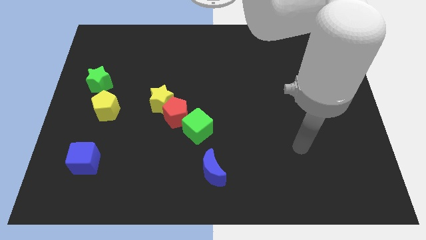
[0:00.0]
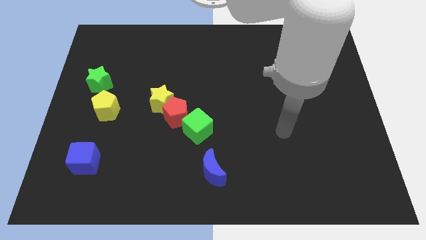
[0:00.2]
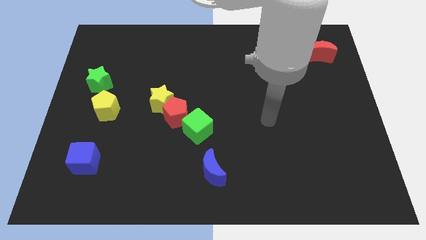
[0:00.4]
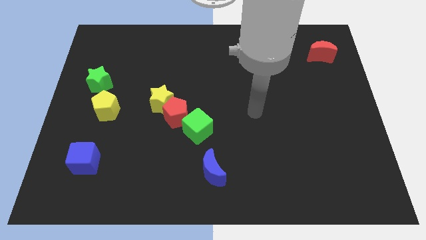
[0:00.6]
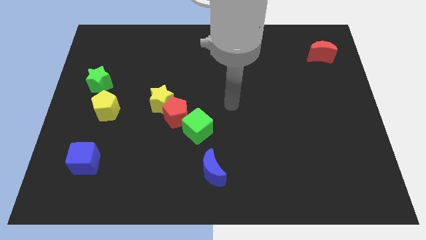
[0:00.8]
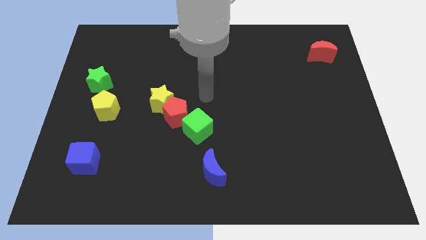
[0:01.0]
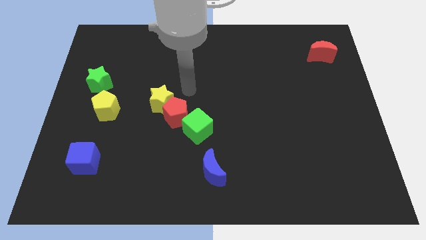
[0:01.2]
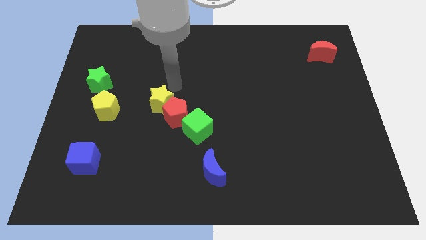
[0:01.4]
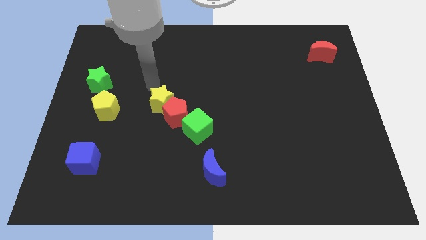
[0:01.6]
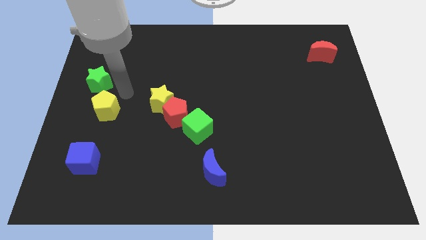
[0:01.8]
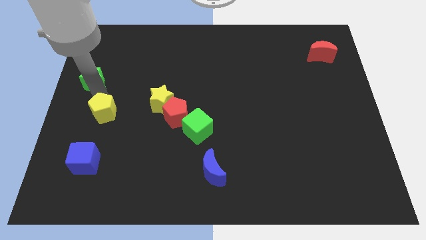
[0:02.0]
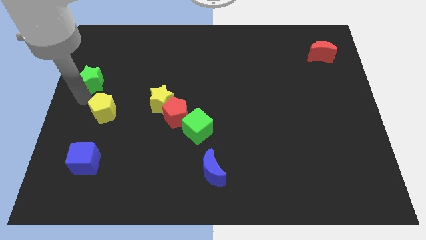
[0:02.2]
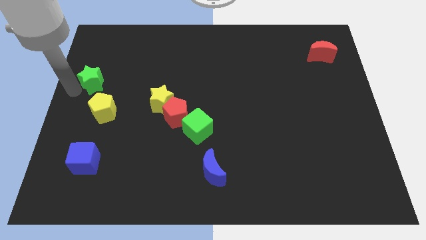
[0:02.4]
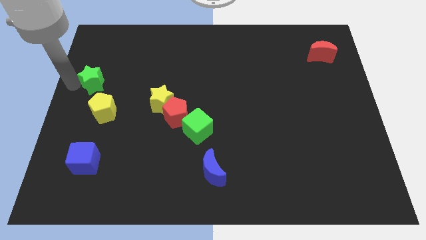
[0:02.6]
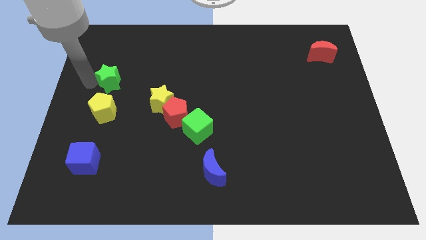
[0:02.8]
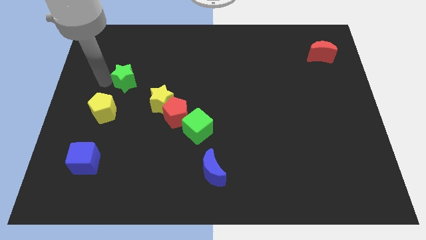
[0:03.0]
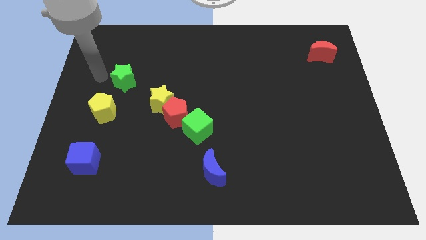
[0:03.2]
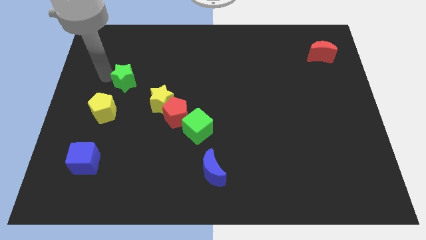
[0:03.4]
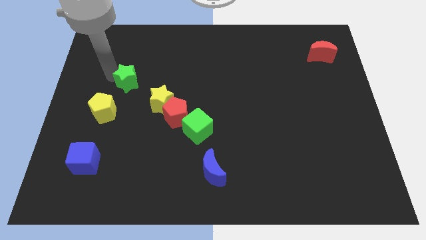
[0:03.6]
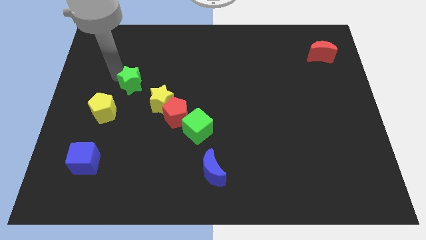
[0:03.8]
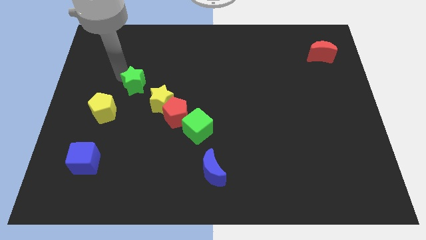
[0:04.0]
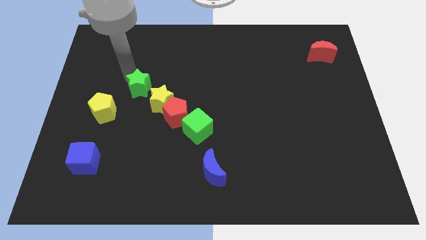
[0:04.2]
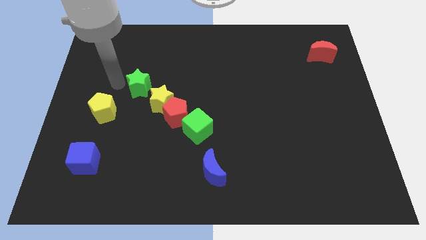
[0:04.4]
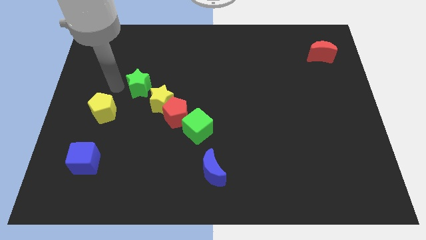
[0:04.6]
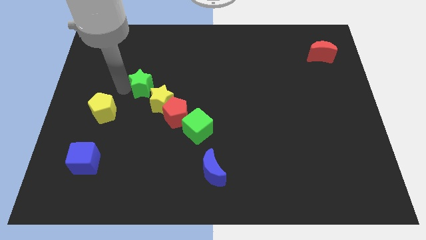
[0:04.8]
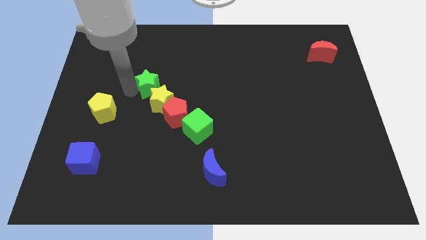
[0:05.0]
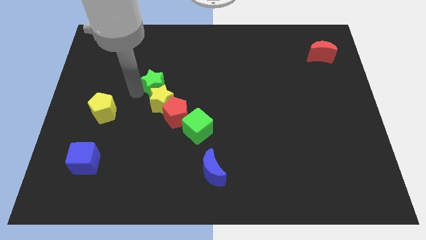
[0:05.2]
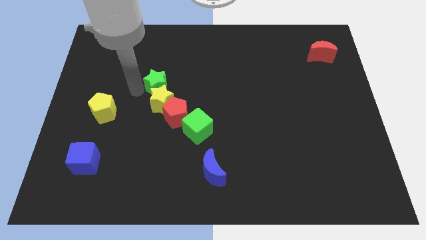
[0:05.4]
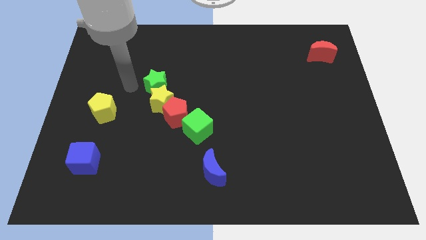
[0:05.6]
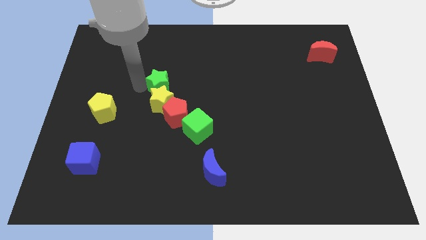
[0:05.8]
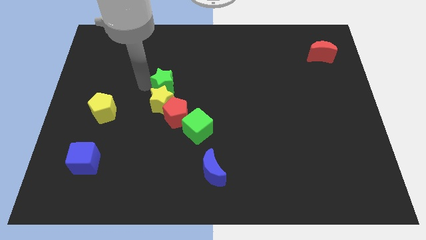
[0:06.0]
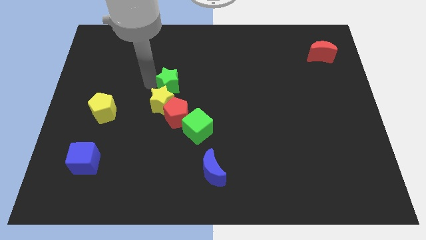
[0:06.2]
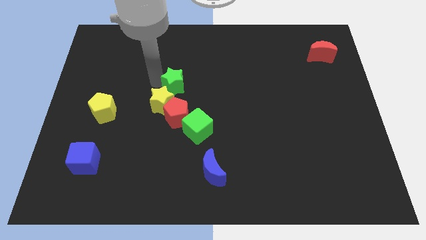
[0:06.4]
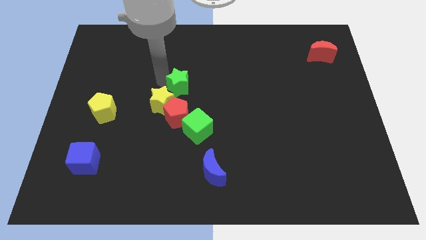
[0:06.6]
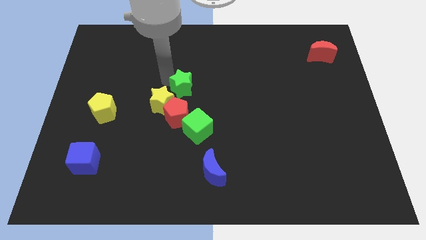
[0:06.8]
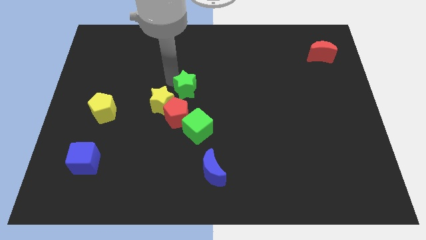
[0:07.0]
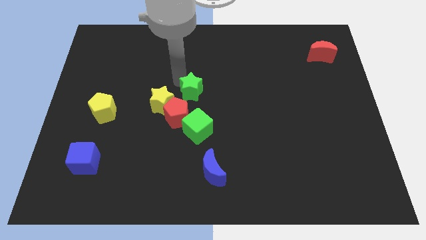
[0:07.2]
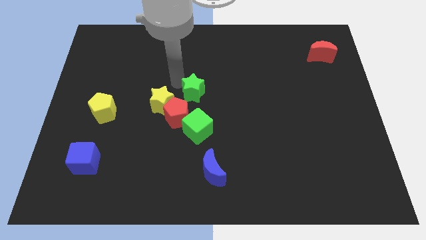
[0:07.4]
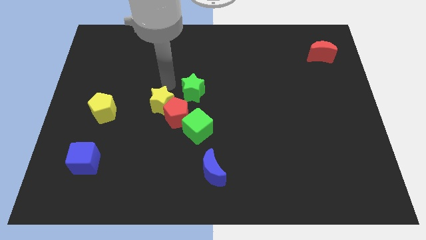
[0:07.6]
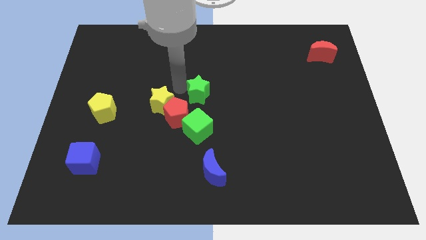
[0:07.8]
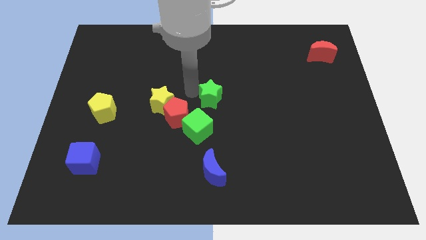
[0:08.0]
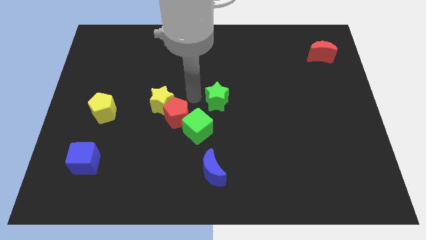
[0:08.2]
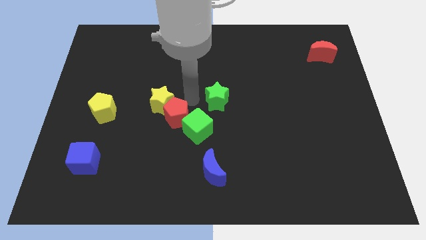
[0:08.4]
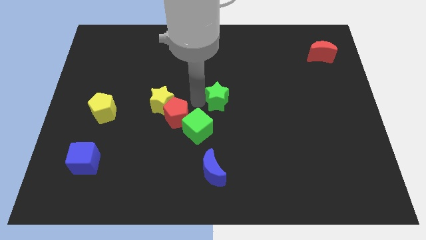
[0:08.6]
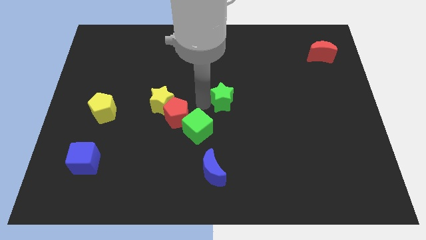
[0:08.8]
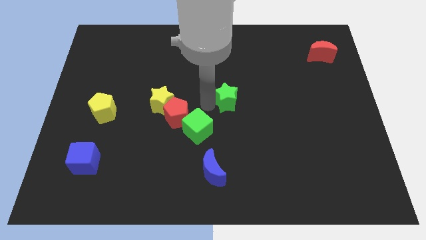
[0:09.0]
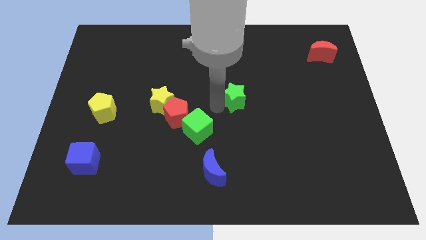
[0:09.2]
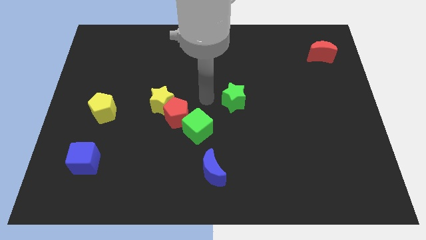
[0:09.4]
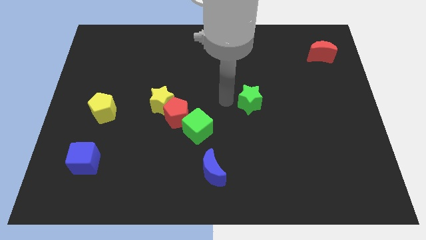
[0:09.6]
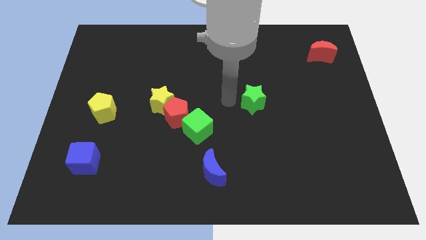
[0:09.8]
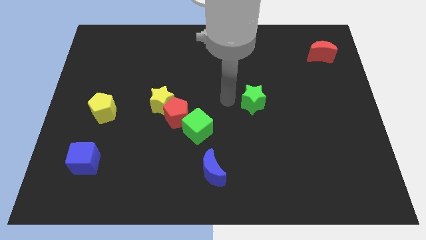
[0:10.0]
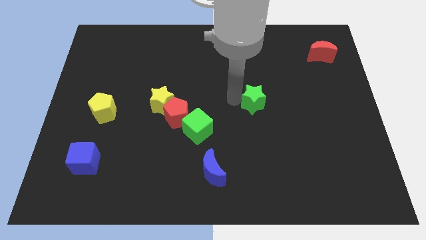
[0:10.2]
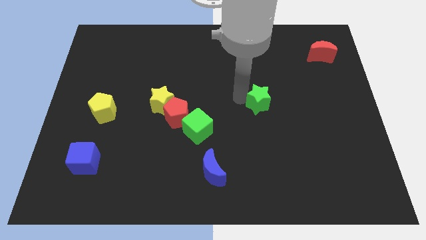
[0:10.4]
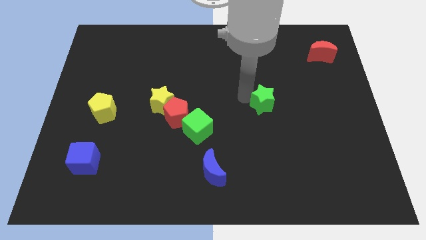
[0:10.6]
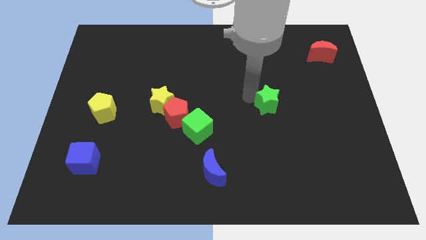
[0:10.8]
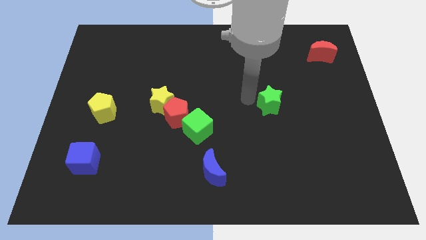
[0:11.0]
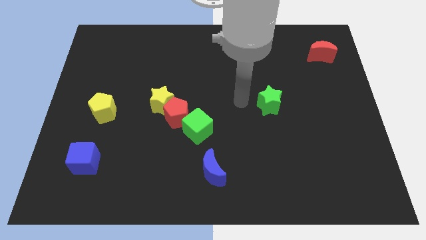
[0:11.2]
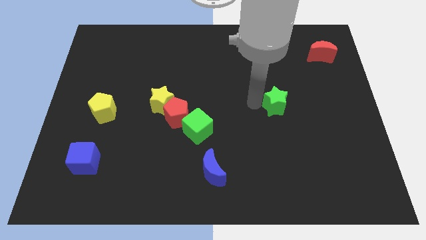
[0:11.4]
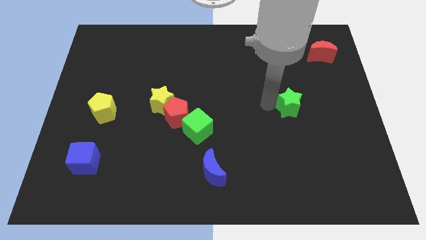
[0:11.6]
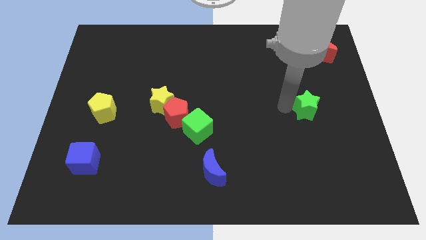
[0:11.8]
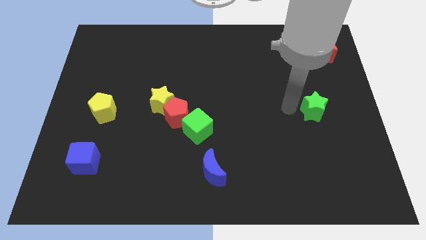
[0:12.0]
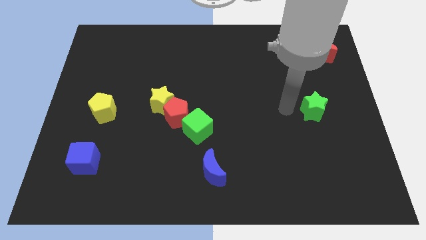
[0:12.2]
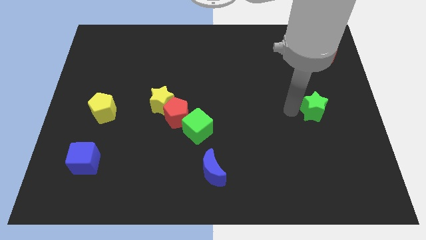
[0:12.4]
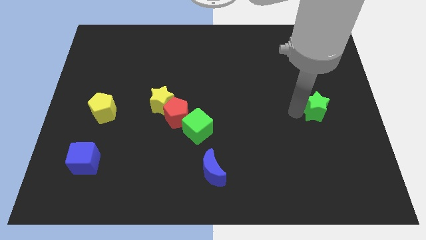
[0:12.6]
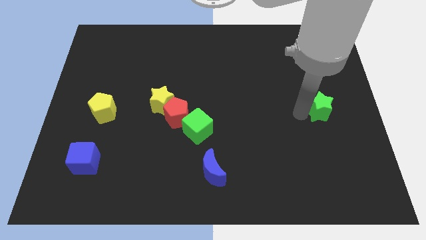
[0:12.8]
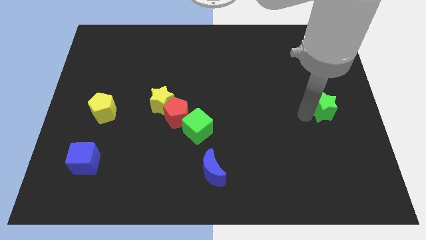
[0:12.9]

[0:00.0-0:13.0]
push the green star to the center right

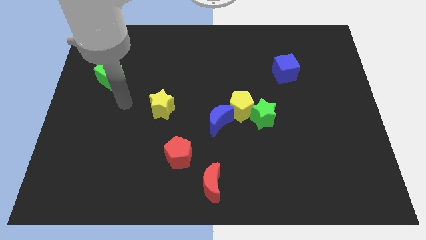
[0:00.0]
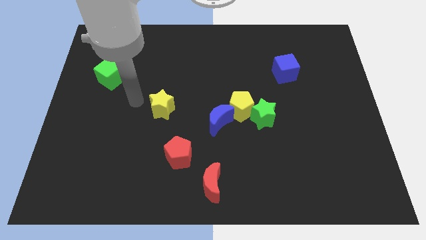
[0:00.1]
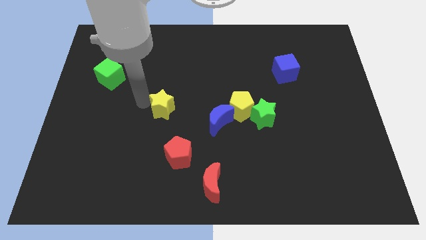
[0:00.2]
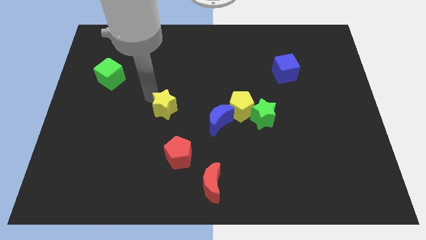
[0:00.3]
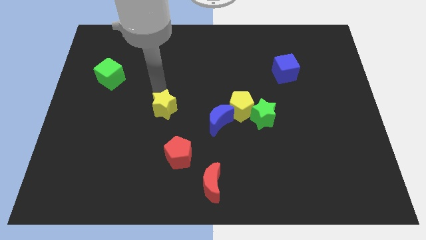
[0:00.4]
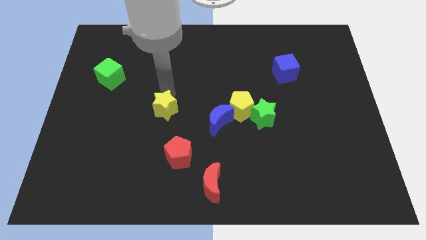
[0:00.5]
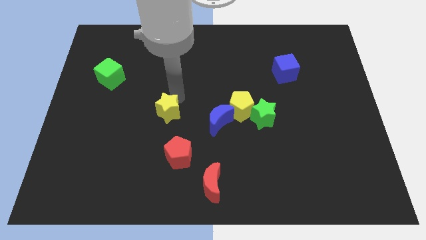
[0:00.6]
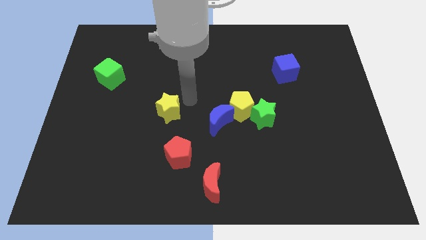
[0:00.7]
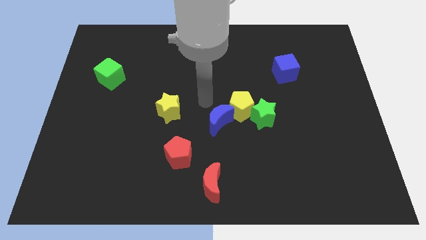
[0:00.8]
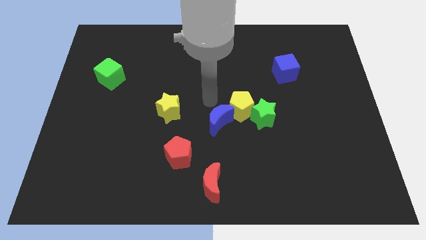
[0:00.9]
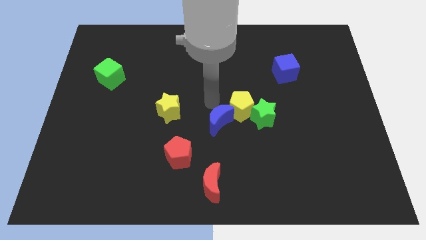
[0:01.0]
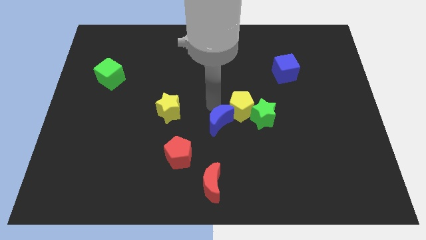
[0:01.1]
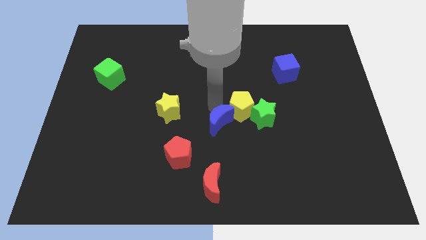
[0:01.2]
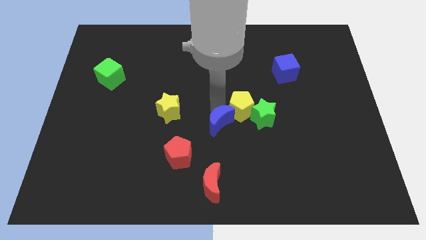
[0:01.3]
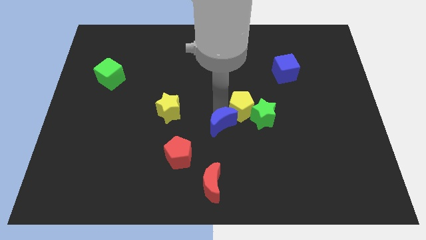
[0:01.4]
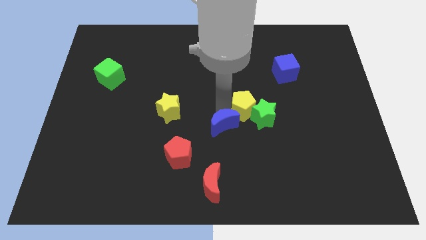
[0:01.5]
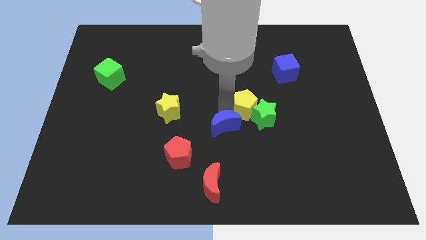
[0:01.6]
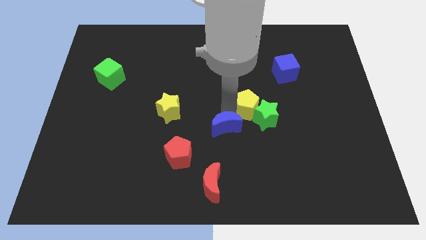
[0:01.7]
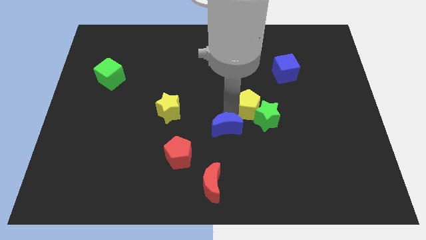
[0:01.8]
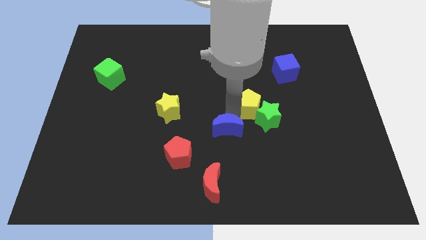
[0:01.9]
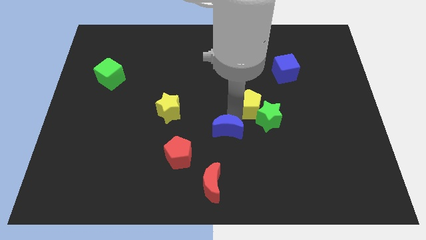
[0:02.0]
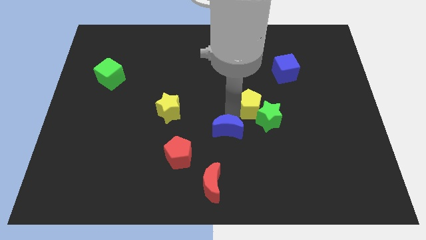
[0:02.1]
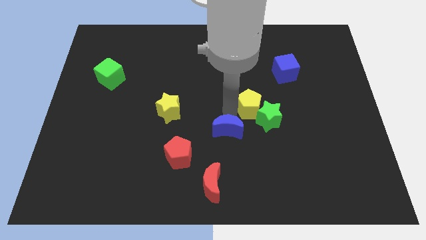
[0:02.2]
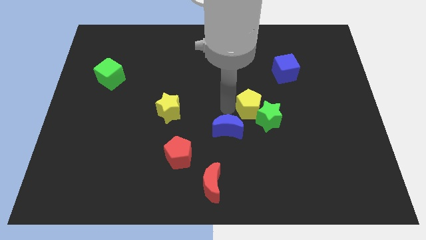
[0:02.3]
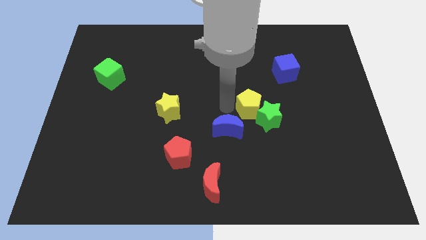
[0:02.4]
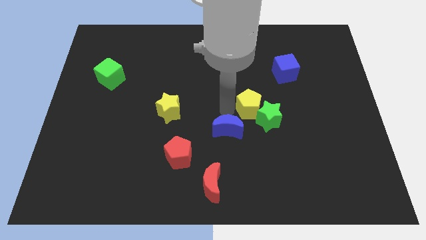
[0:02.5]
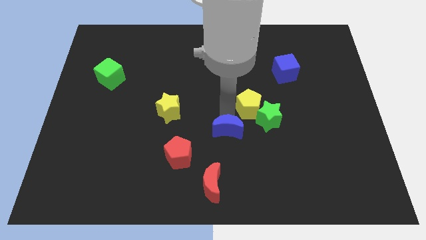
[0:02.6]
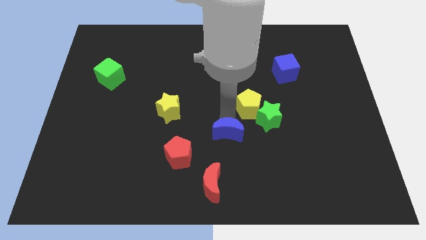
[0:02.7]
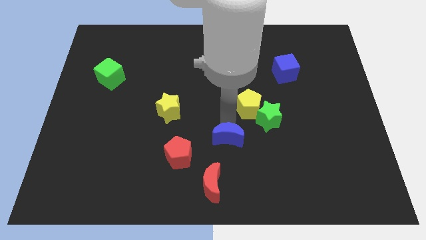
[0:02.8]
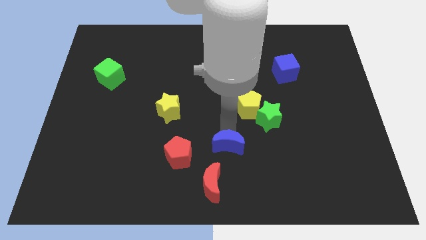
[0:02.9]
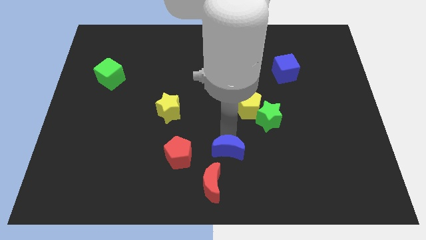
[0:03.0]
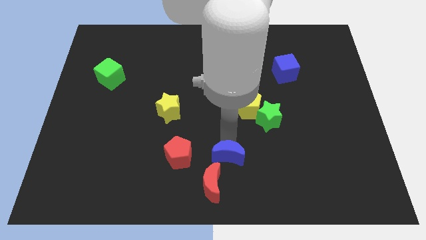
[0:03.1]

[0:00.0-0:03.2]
push the blue moon to the bottom
